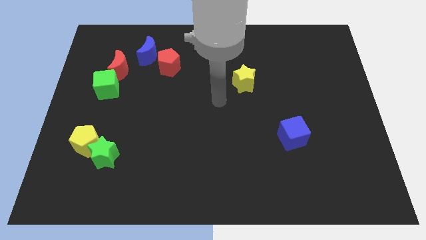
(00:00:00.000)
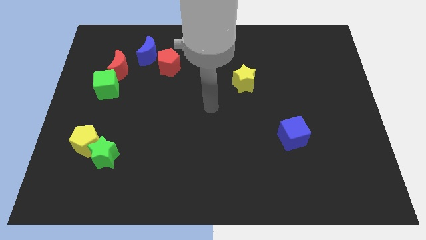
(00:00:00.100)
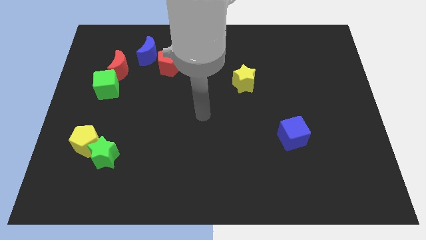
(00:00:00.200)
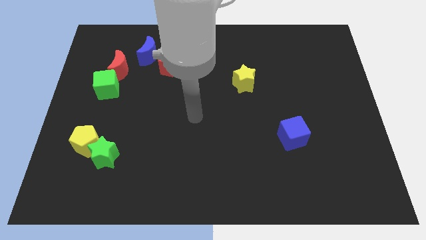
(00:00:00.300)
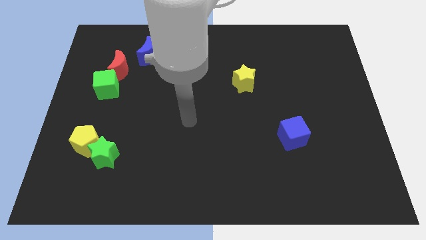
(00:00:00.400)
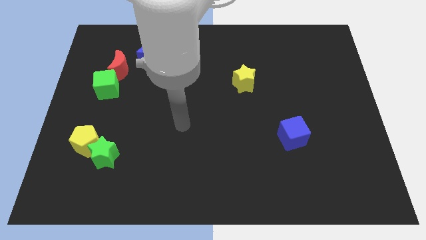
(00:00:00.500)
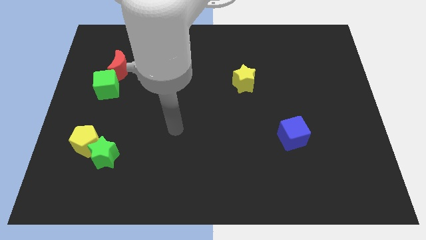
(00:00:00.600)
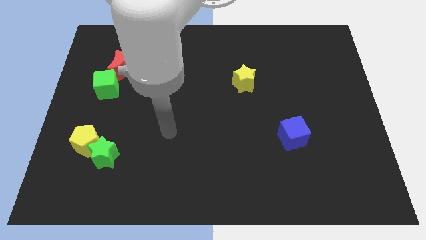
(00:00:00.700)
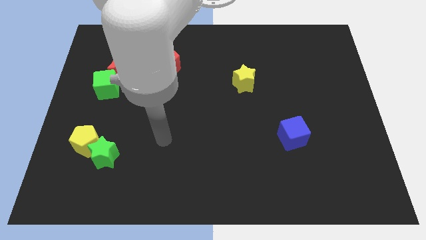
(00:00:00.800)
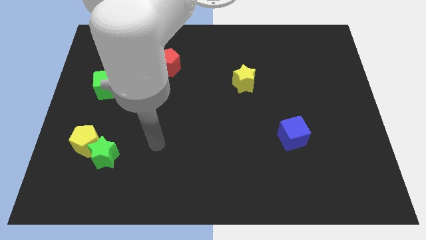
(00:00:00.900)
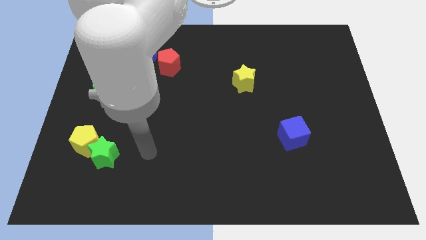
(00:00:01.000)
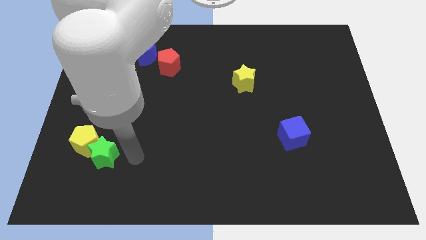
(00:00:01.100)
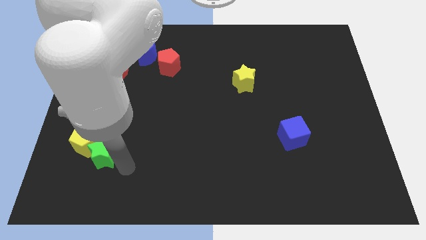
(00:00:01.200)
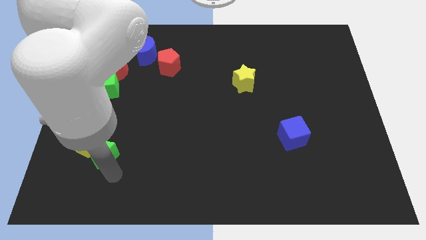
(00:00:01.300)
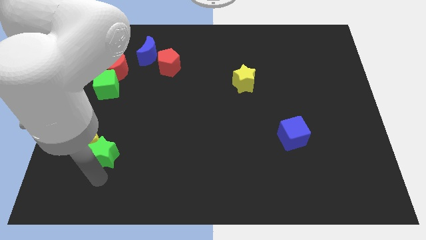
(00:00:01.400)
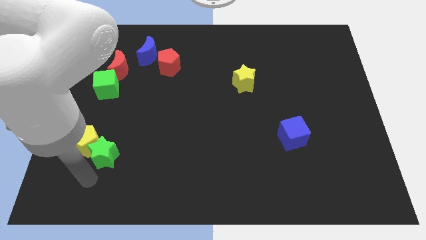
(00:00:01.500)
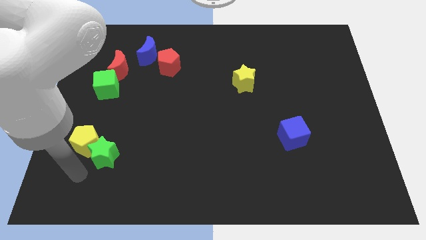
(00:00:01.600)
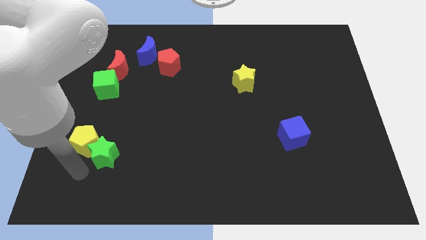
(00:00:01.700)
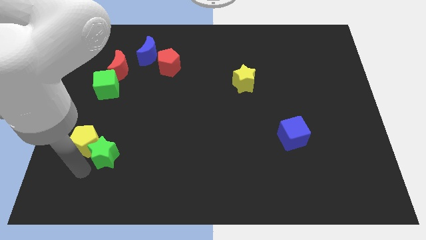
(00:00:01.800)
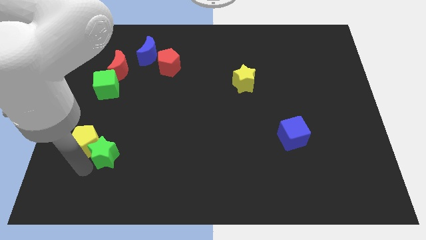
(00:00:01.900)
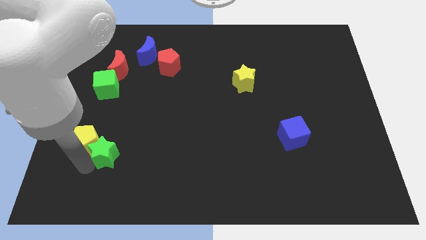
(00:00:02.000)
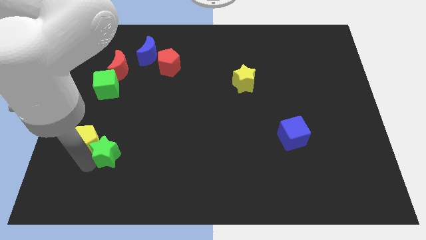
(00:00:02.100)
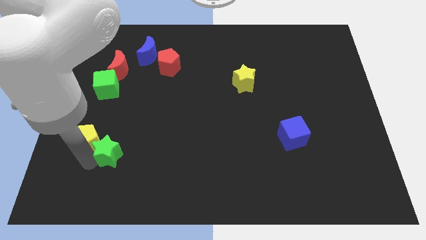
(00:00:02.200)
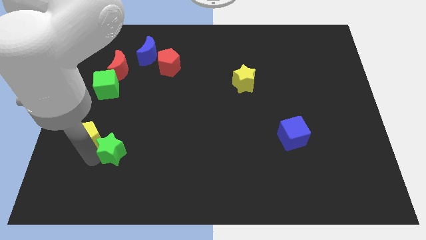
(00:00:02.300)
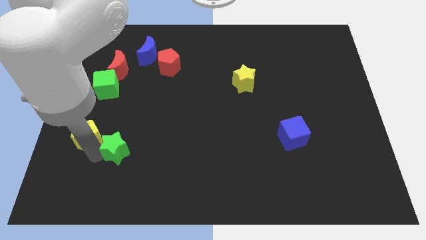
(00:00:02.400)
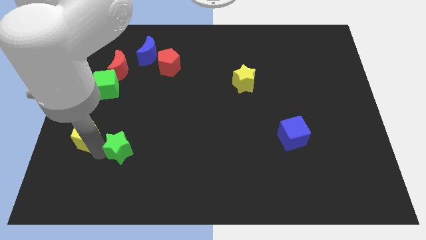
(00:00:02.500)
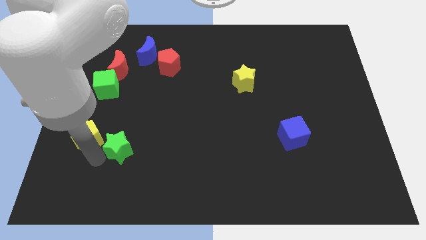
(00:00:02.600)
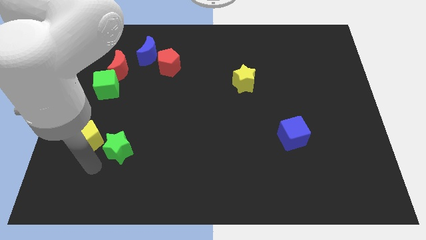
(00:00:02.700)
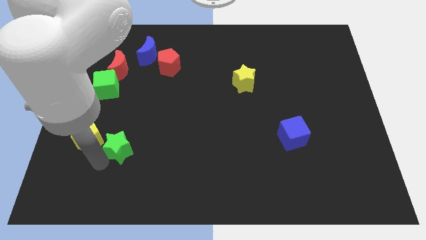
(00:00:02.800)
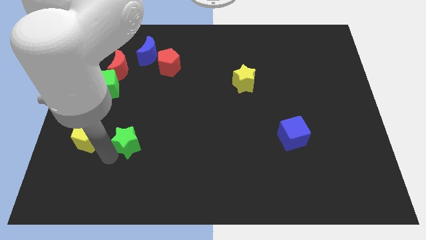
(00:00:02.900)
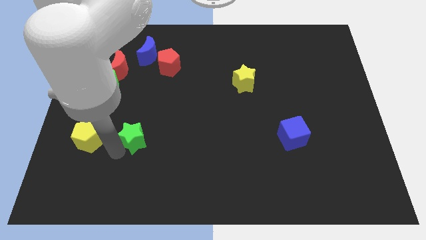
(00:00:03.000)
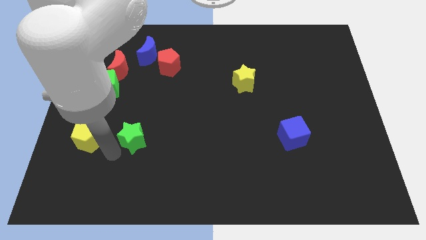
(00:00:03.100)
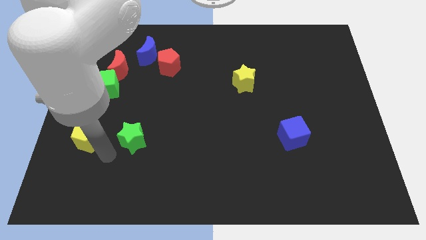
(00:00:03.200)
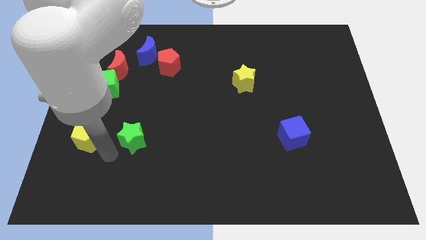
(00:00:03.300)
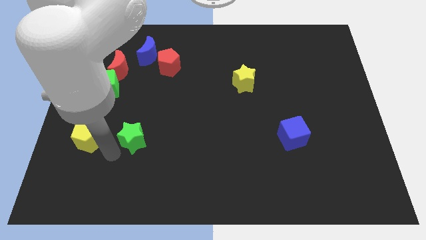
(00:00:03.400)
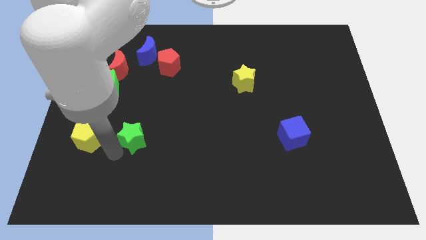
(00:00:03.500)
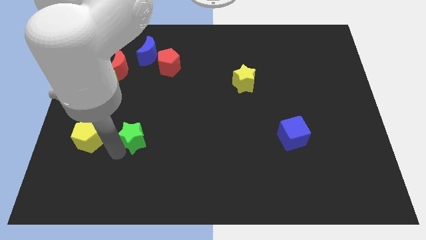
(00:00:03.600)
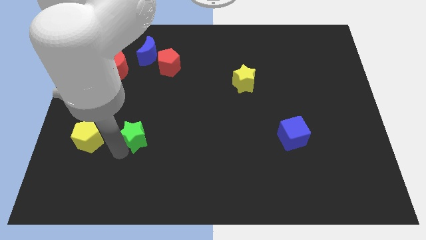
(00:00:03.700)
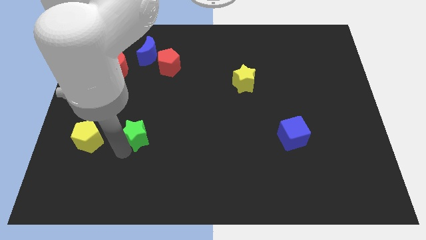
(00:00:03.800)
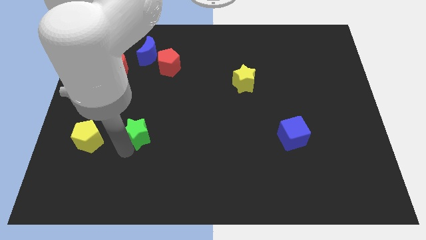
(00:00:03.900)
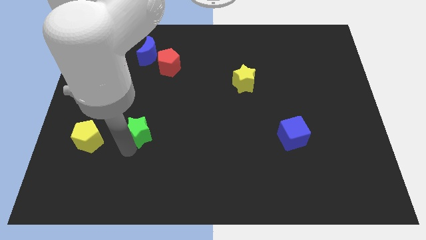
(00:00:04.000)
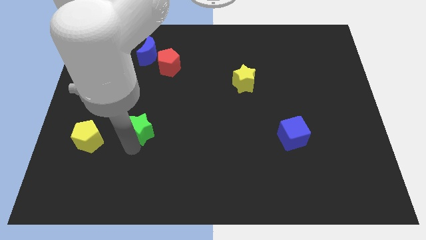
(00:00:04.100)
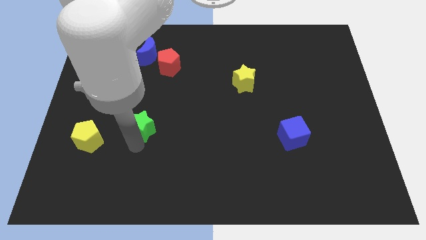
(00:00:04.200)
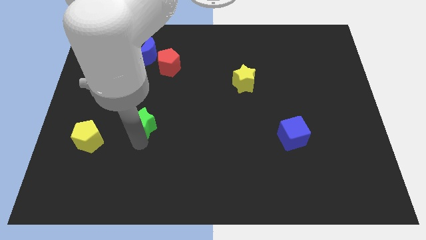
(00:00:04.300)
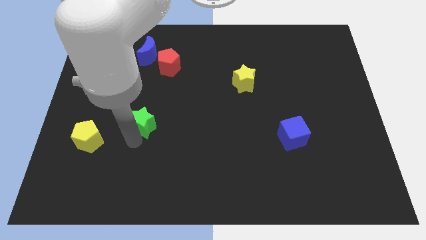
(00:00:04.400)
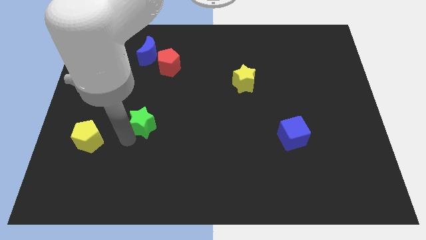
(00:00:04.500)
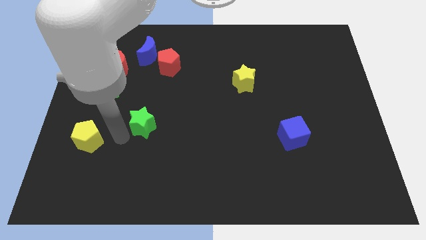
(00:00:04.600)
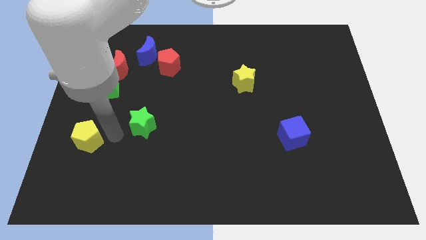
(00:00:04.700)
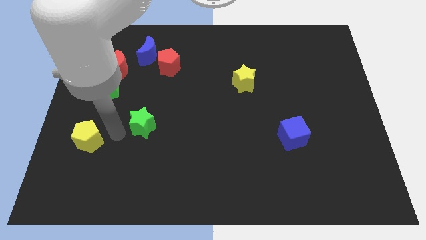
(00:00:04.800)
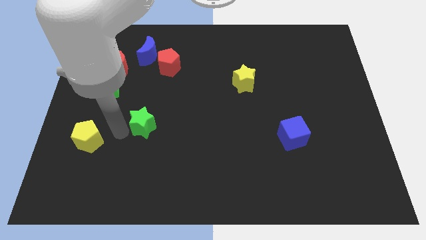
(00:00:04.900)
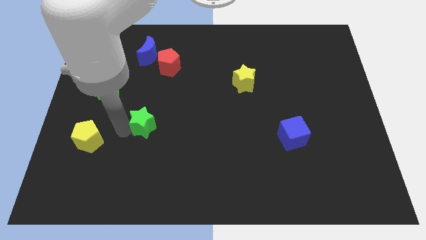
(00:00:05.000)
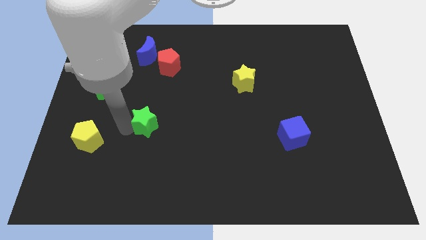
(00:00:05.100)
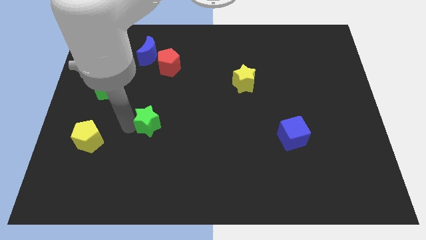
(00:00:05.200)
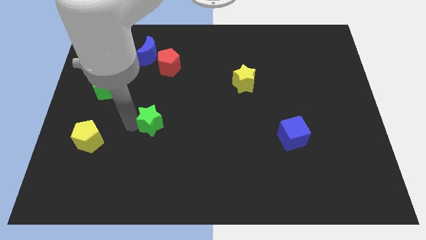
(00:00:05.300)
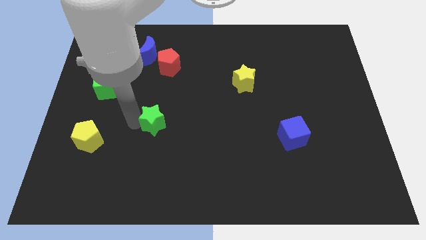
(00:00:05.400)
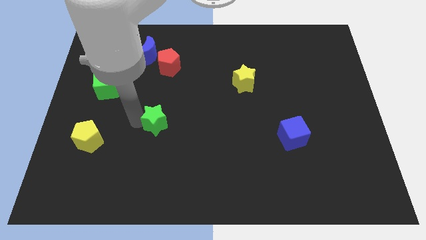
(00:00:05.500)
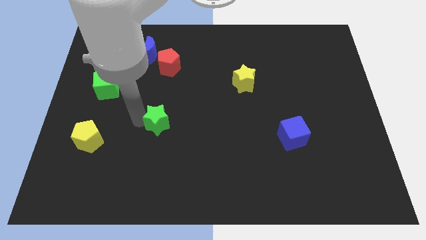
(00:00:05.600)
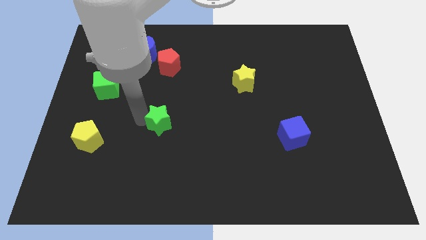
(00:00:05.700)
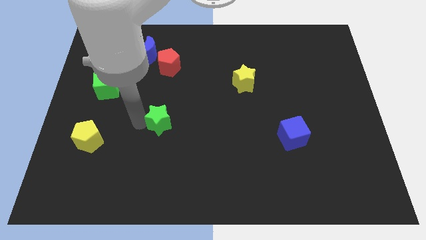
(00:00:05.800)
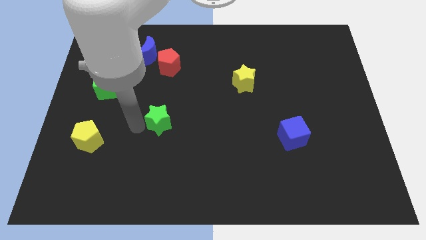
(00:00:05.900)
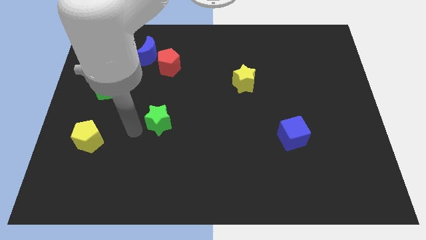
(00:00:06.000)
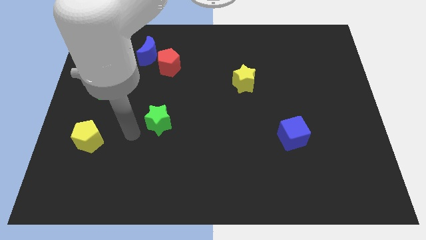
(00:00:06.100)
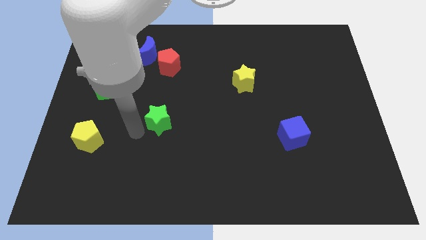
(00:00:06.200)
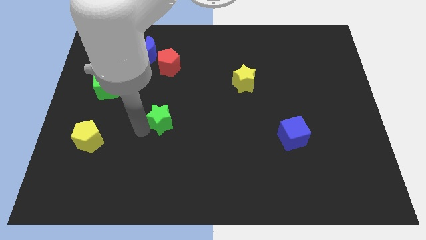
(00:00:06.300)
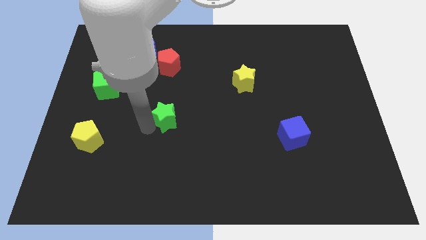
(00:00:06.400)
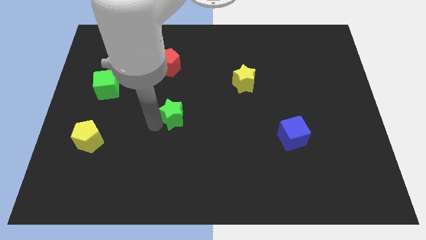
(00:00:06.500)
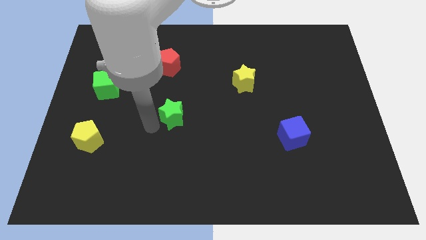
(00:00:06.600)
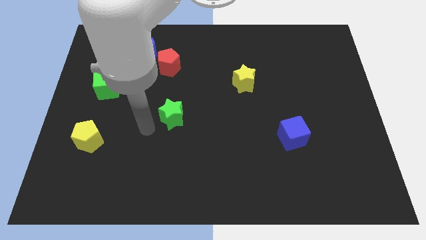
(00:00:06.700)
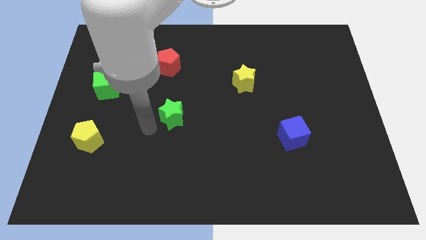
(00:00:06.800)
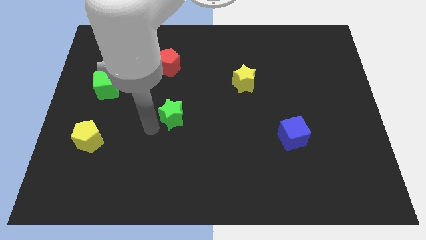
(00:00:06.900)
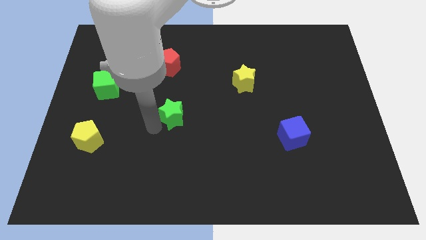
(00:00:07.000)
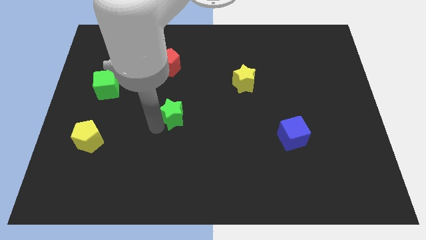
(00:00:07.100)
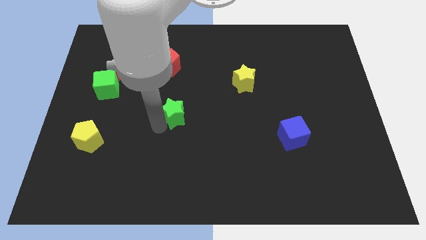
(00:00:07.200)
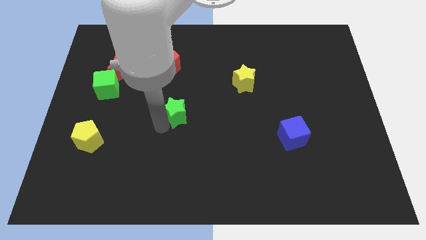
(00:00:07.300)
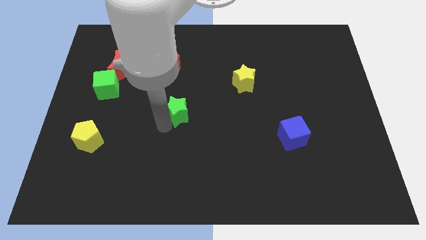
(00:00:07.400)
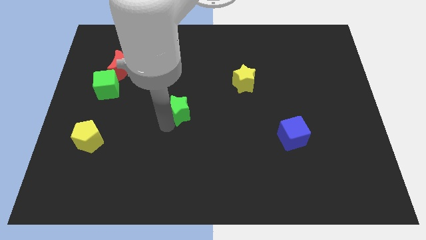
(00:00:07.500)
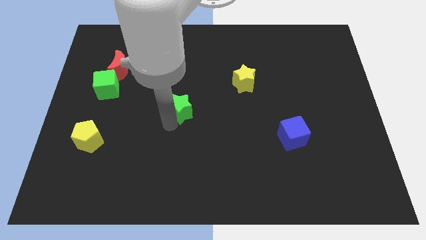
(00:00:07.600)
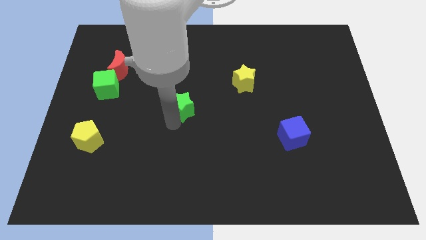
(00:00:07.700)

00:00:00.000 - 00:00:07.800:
push the green star up and then to the right

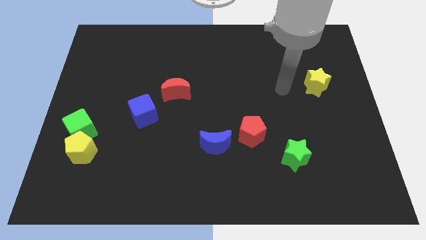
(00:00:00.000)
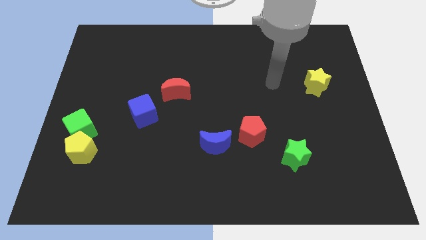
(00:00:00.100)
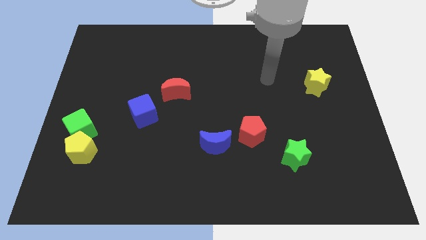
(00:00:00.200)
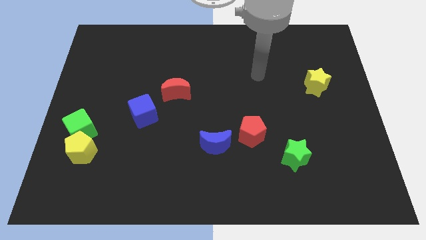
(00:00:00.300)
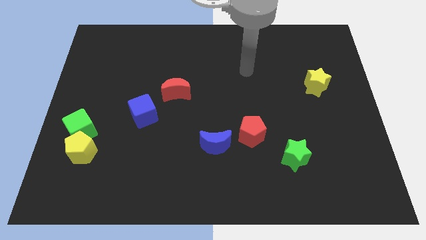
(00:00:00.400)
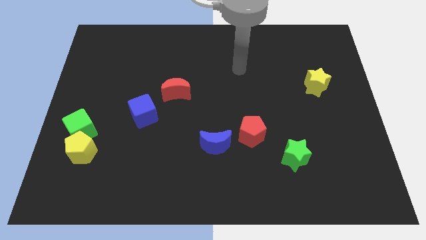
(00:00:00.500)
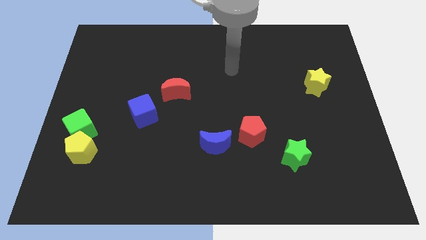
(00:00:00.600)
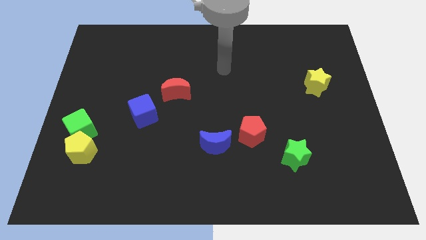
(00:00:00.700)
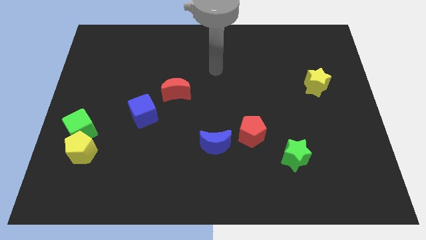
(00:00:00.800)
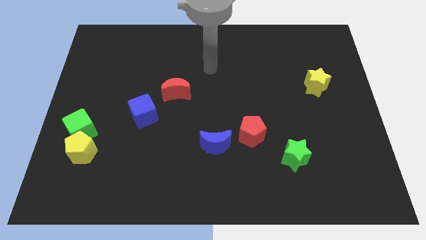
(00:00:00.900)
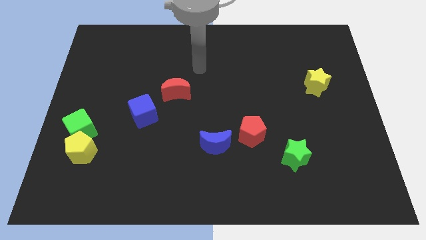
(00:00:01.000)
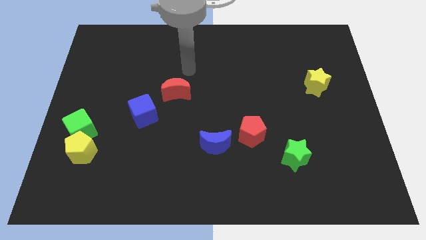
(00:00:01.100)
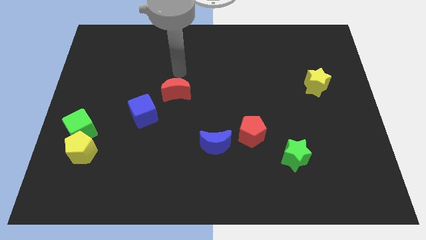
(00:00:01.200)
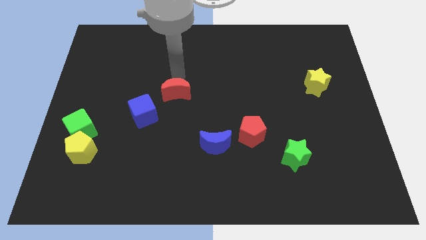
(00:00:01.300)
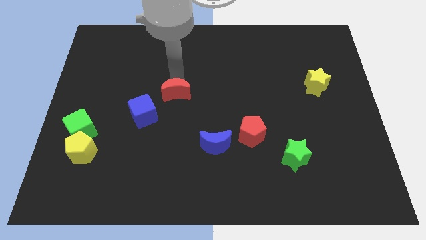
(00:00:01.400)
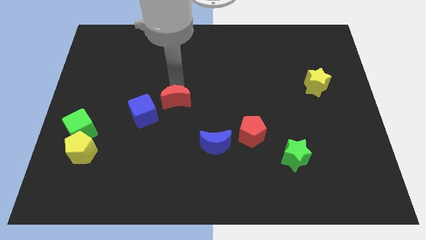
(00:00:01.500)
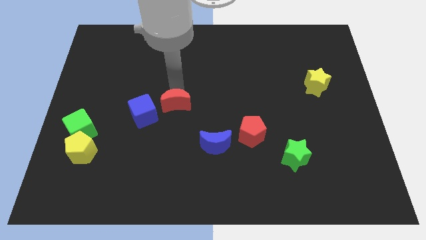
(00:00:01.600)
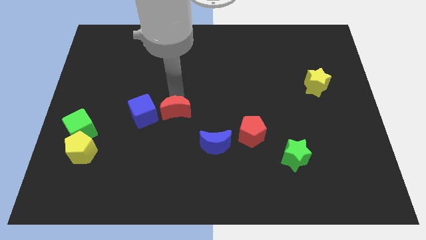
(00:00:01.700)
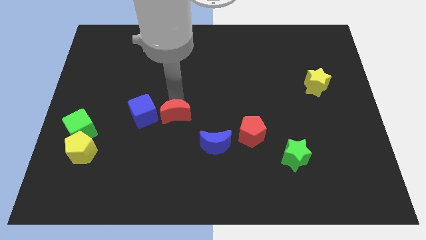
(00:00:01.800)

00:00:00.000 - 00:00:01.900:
move the red moon slightly downwards
